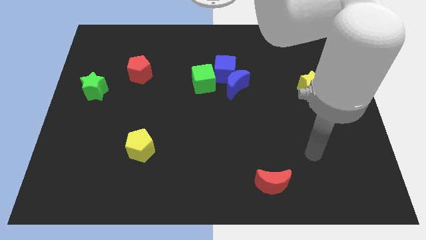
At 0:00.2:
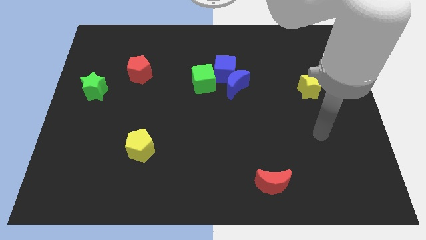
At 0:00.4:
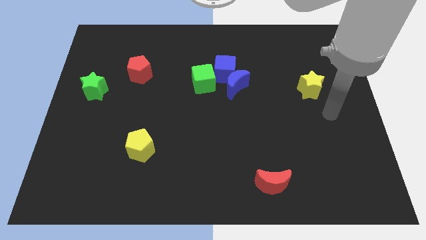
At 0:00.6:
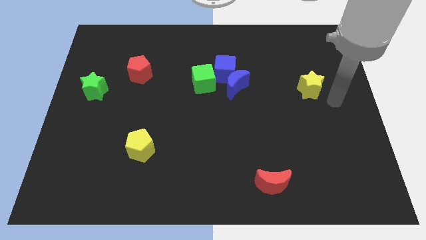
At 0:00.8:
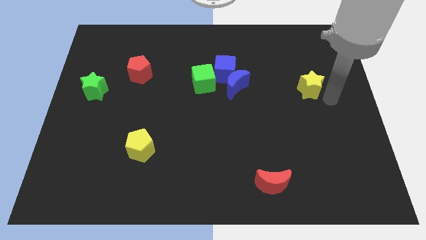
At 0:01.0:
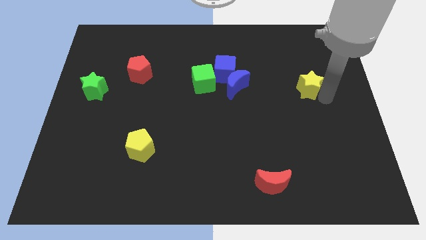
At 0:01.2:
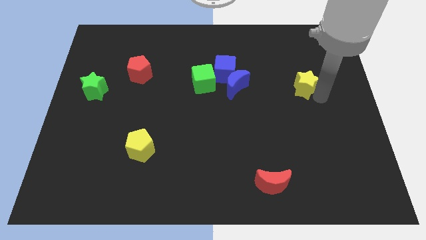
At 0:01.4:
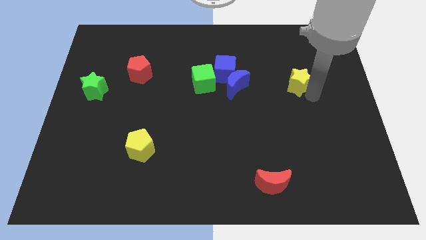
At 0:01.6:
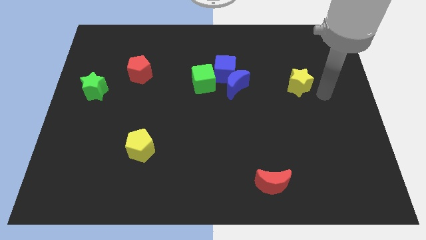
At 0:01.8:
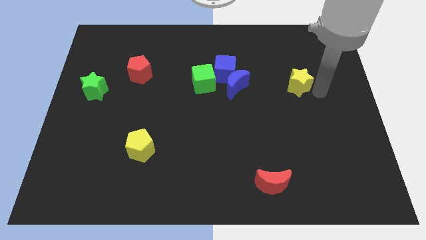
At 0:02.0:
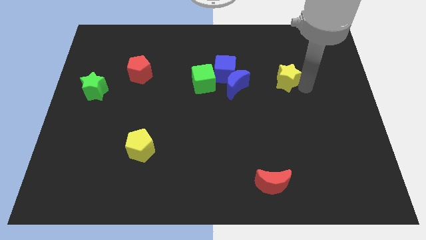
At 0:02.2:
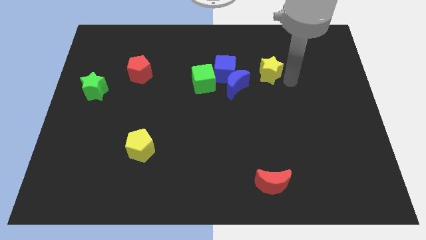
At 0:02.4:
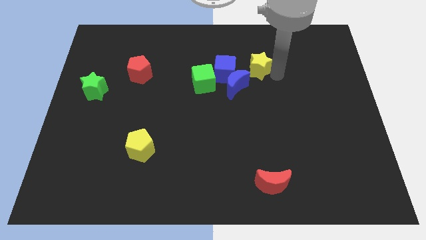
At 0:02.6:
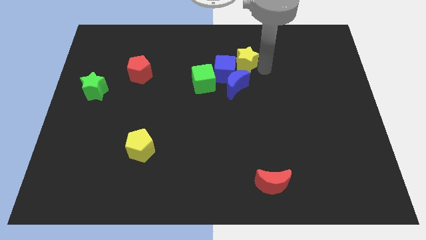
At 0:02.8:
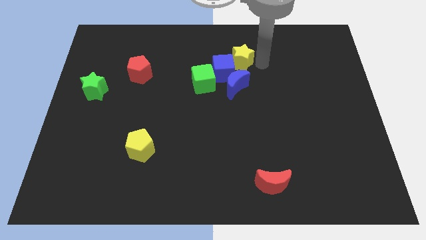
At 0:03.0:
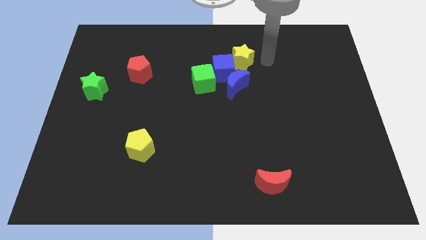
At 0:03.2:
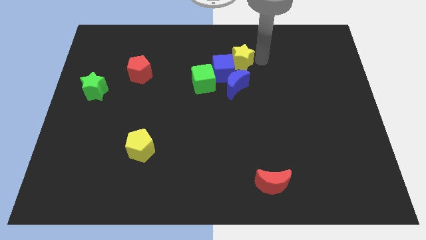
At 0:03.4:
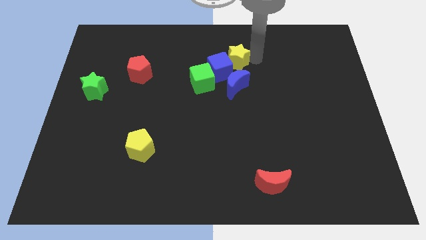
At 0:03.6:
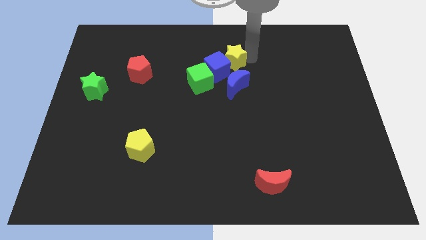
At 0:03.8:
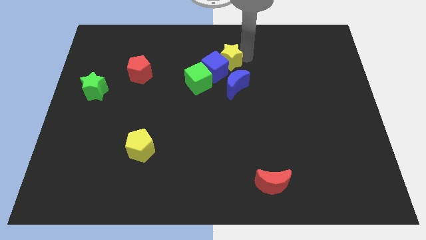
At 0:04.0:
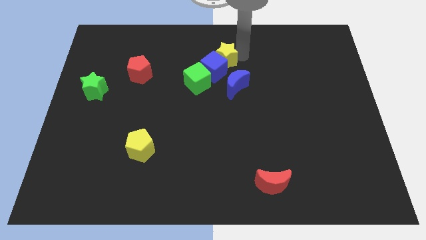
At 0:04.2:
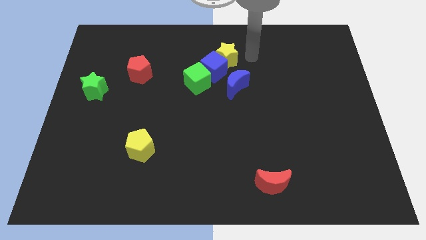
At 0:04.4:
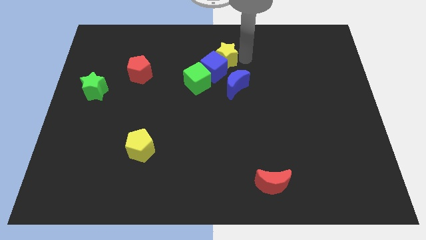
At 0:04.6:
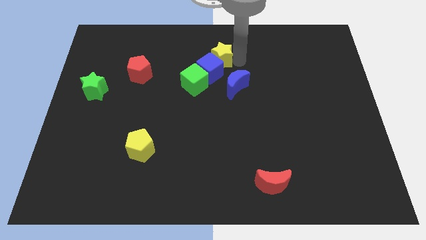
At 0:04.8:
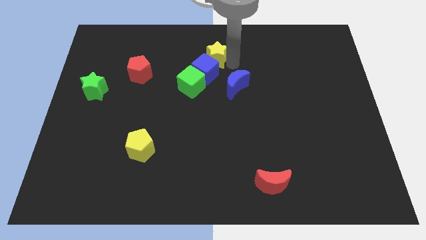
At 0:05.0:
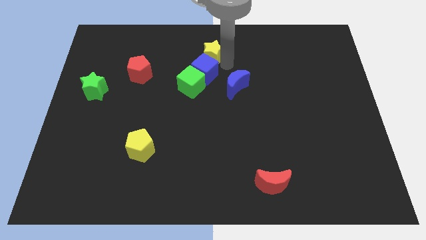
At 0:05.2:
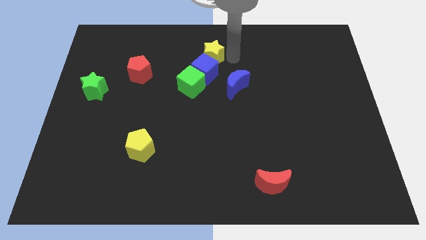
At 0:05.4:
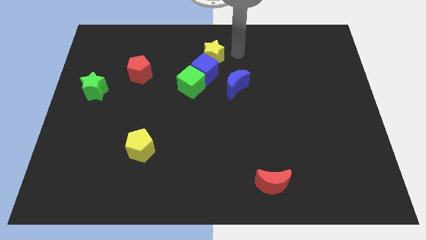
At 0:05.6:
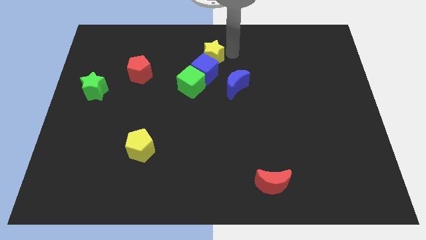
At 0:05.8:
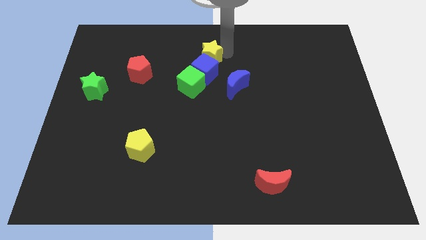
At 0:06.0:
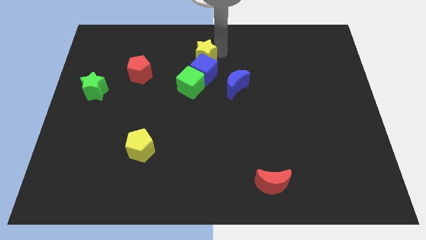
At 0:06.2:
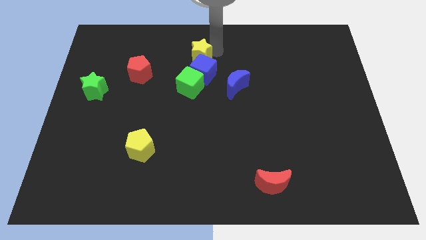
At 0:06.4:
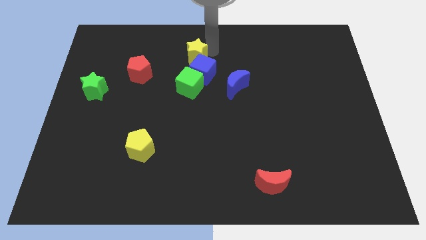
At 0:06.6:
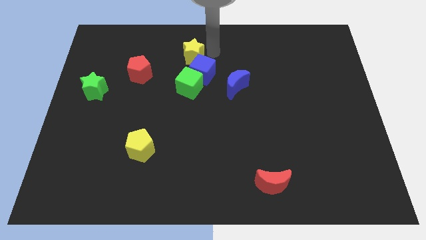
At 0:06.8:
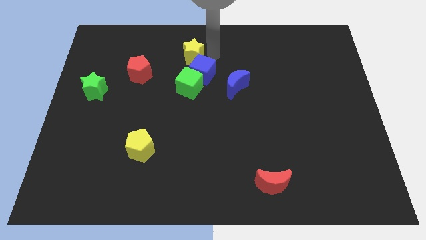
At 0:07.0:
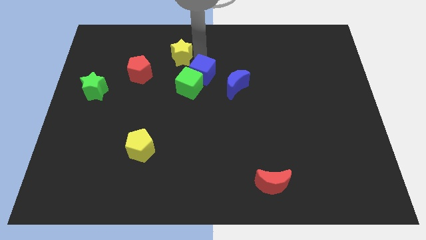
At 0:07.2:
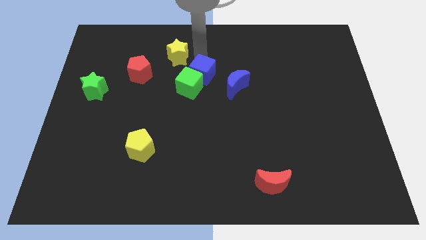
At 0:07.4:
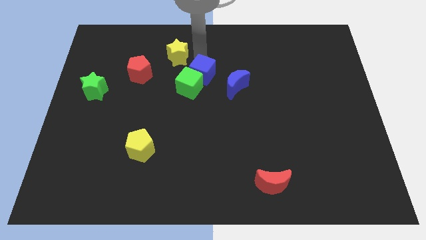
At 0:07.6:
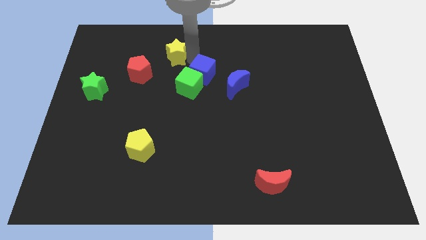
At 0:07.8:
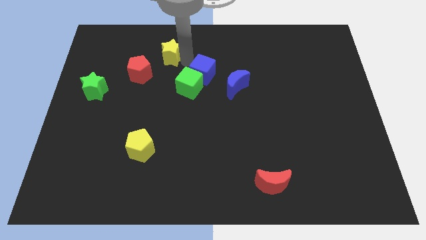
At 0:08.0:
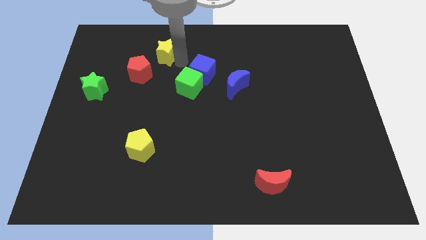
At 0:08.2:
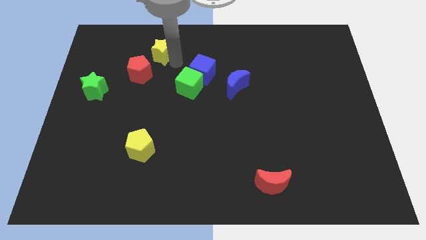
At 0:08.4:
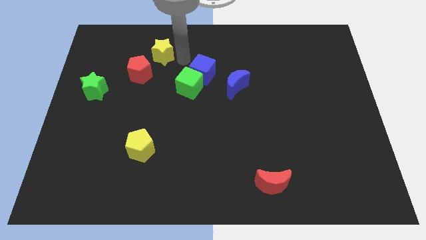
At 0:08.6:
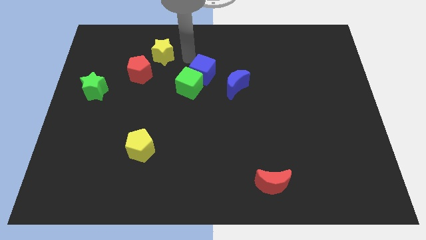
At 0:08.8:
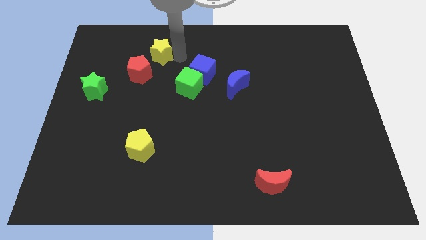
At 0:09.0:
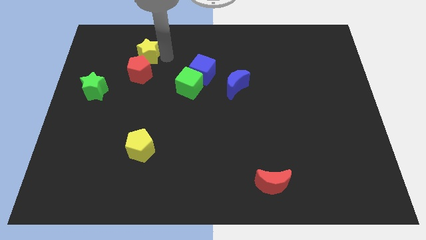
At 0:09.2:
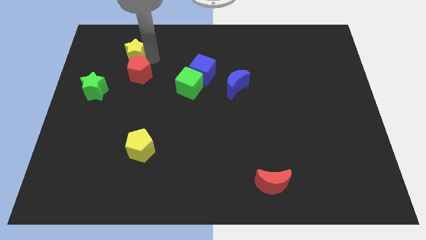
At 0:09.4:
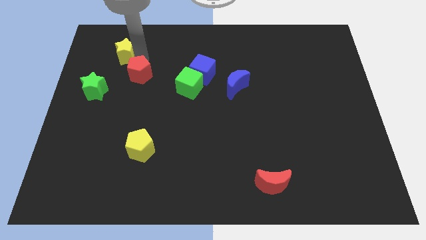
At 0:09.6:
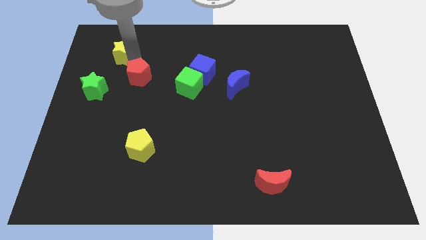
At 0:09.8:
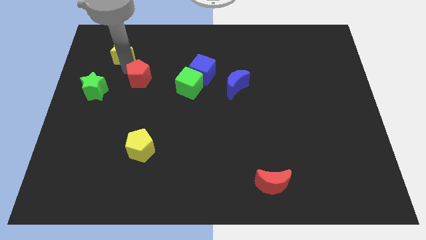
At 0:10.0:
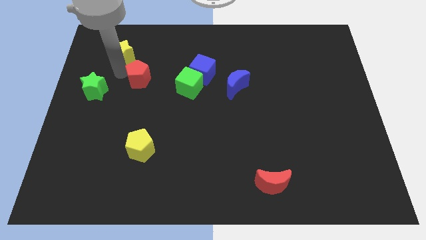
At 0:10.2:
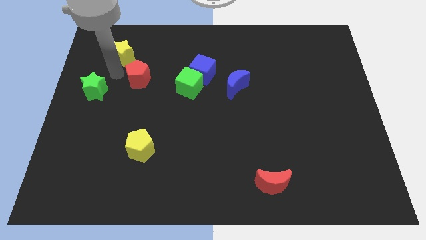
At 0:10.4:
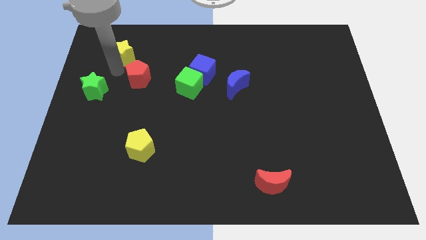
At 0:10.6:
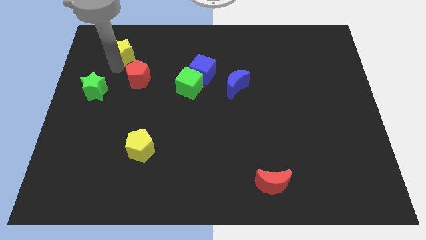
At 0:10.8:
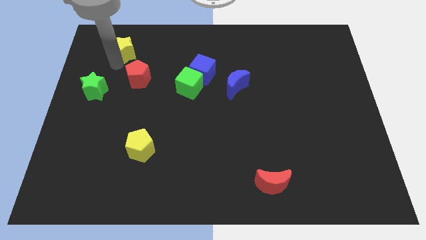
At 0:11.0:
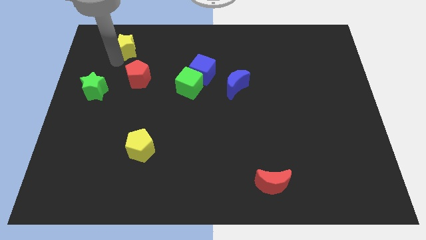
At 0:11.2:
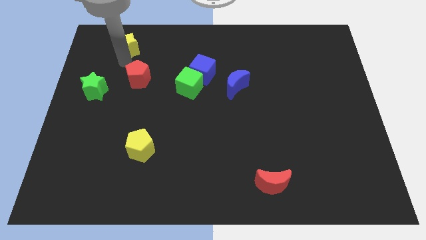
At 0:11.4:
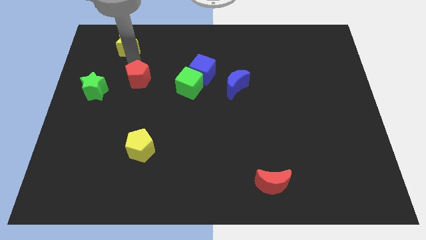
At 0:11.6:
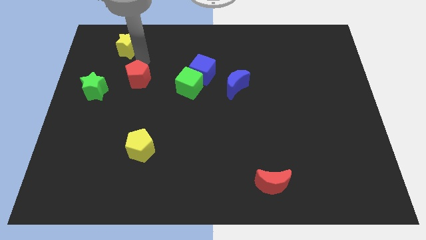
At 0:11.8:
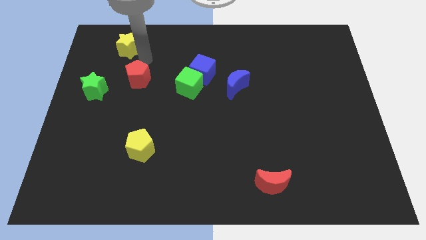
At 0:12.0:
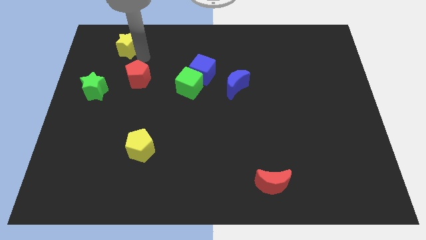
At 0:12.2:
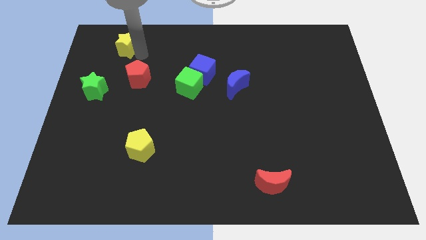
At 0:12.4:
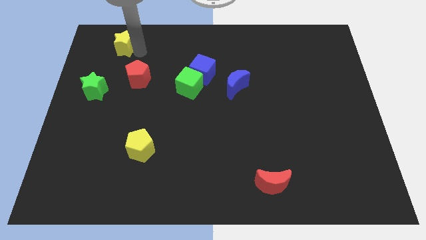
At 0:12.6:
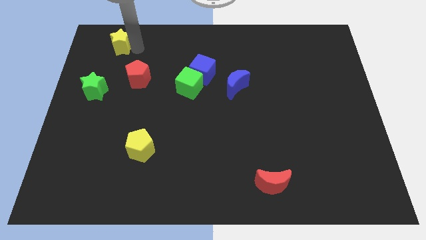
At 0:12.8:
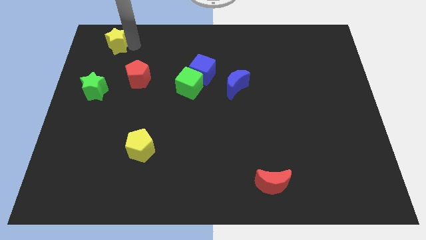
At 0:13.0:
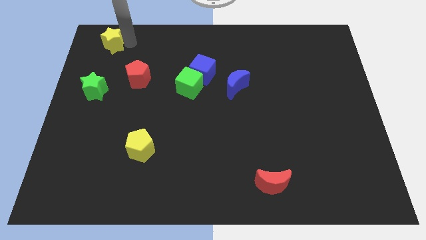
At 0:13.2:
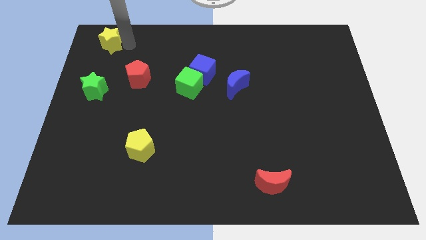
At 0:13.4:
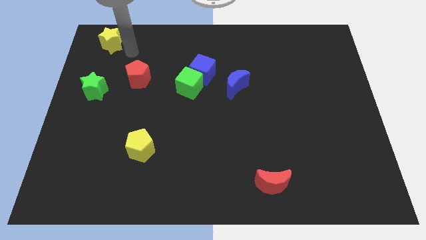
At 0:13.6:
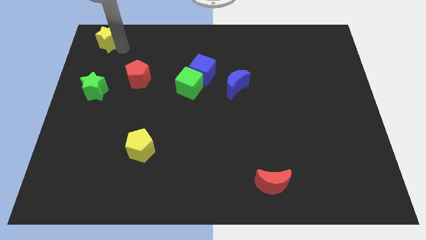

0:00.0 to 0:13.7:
slide the yellow star to the top left
